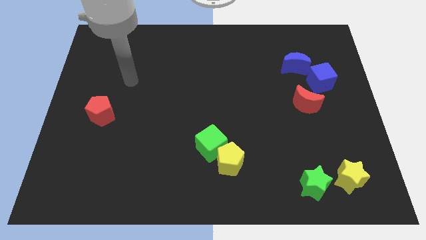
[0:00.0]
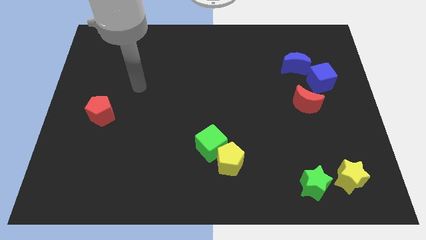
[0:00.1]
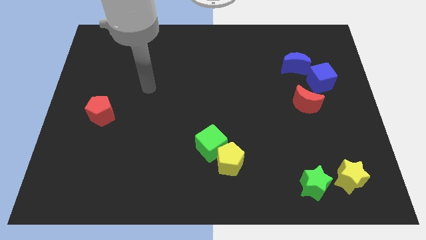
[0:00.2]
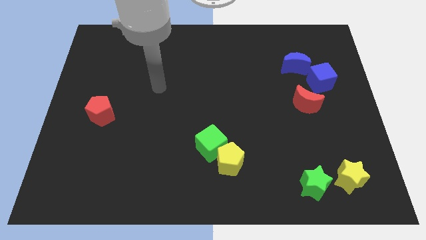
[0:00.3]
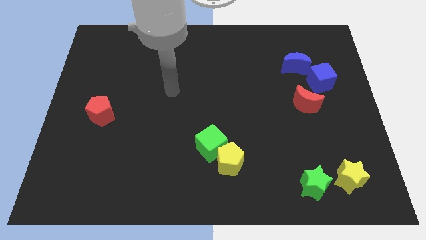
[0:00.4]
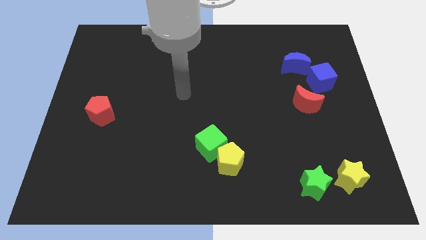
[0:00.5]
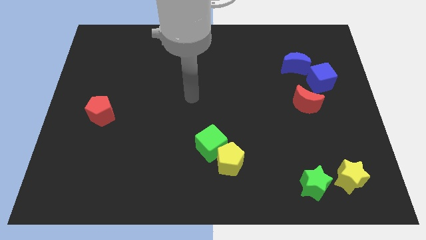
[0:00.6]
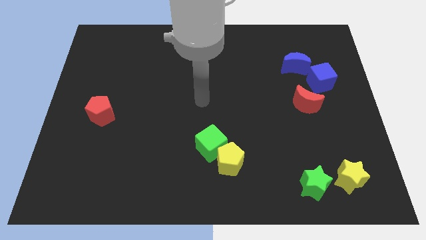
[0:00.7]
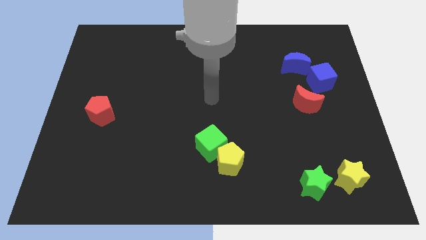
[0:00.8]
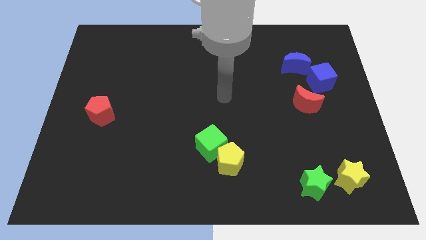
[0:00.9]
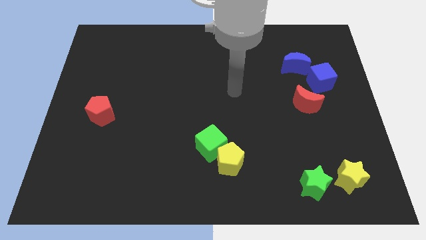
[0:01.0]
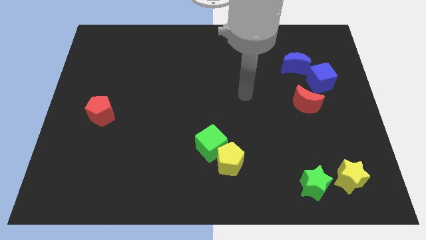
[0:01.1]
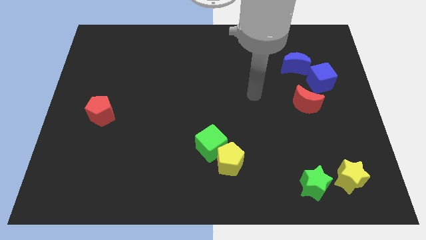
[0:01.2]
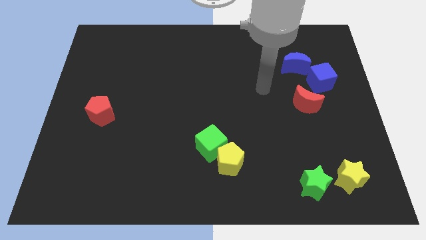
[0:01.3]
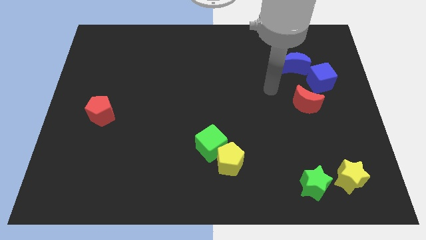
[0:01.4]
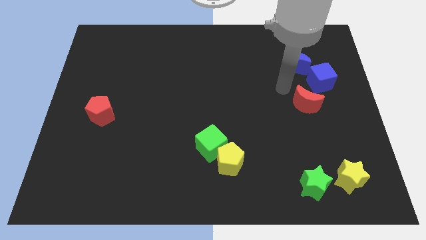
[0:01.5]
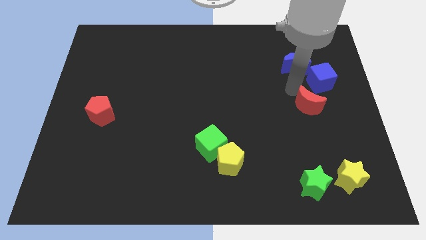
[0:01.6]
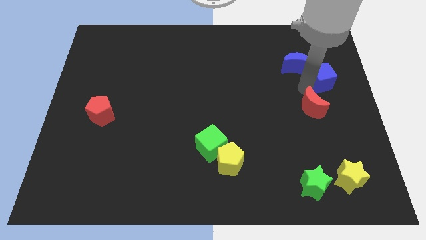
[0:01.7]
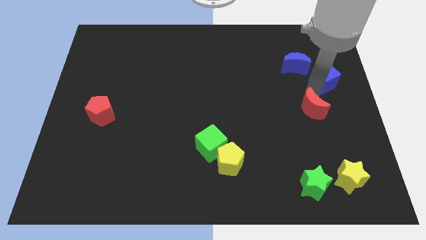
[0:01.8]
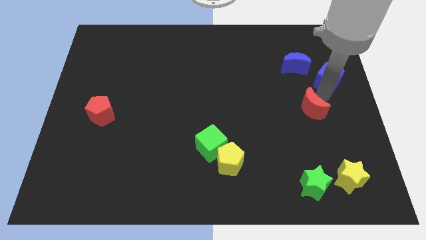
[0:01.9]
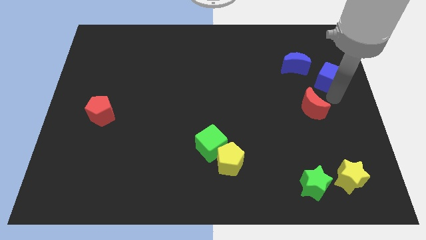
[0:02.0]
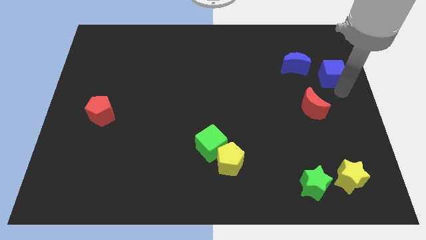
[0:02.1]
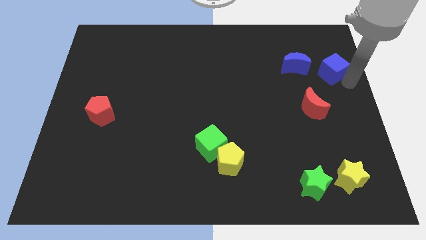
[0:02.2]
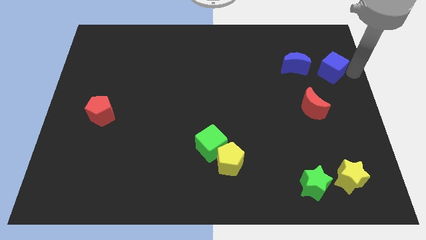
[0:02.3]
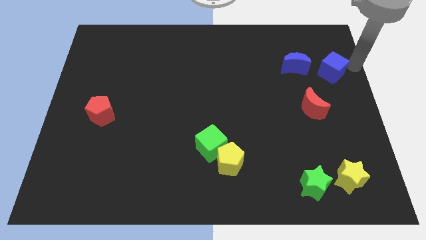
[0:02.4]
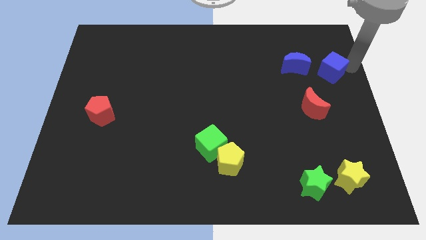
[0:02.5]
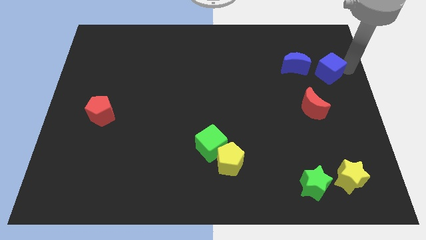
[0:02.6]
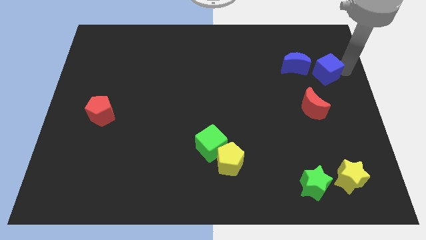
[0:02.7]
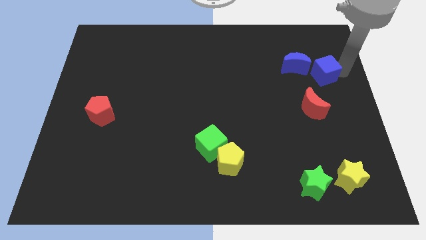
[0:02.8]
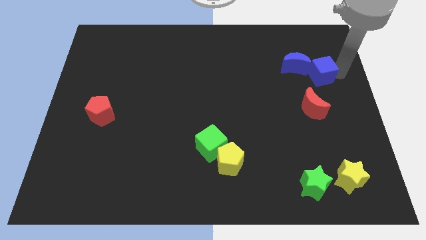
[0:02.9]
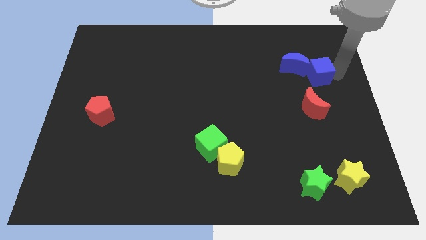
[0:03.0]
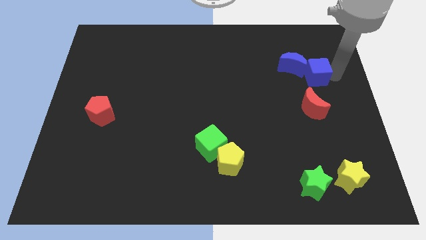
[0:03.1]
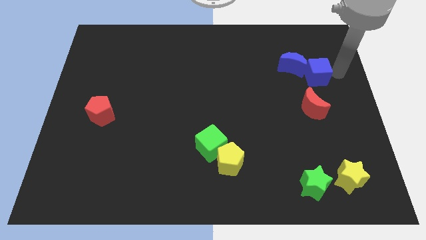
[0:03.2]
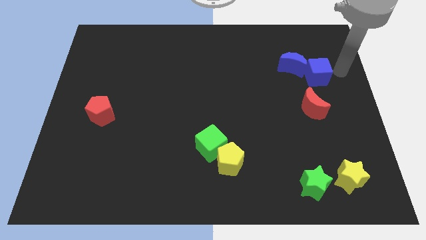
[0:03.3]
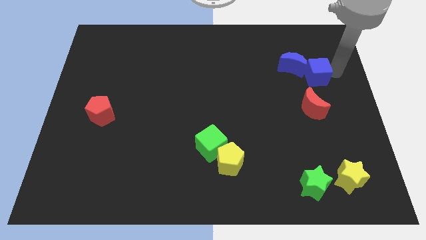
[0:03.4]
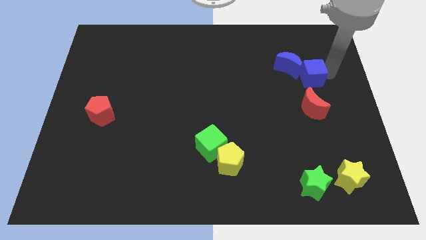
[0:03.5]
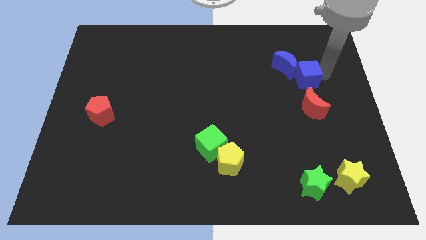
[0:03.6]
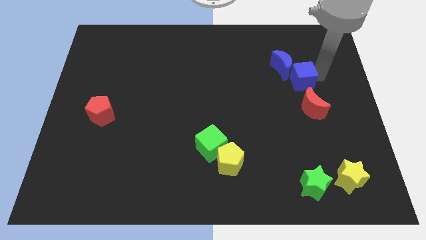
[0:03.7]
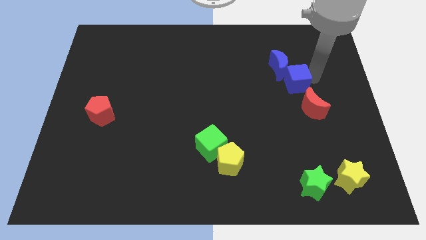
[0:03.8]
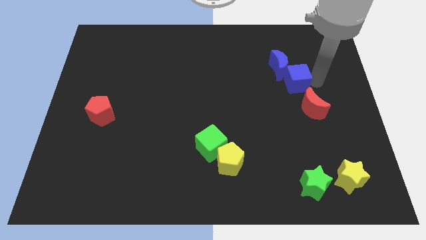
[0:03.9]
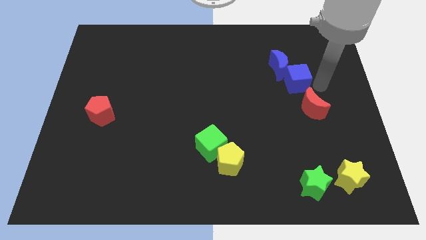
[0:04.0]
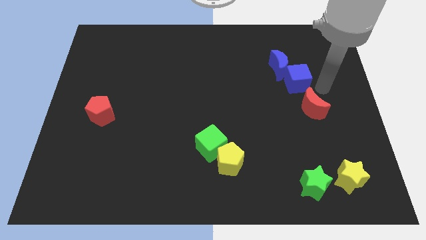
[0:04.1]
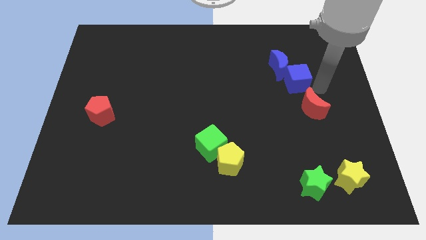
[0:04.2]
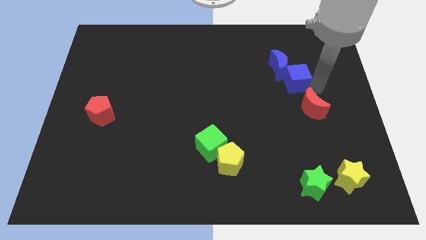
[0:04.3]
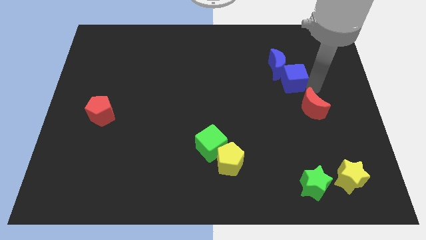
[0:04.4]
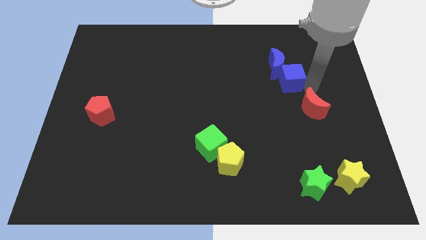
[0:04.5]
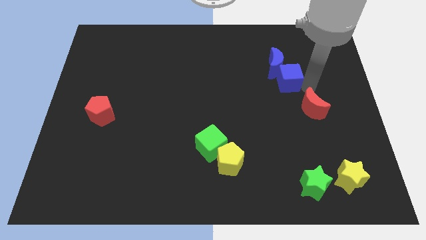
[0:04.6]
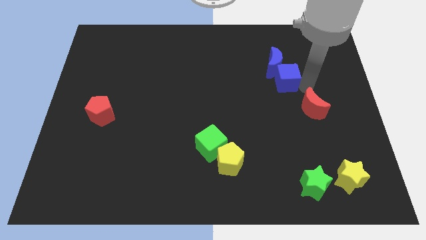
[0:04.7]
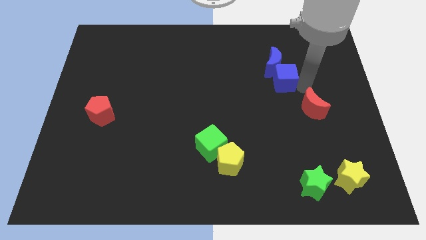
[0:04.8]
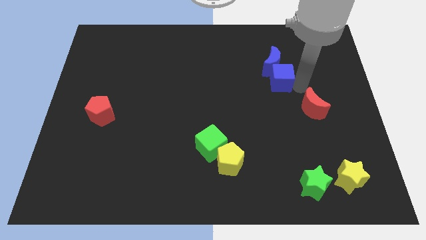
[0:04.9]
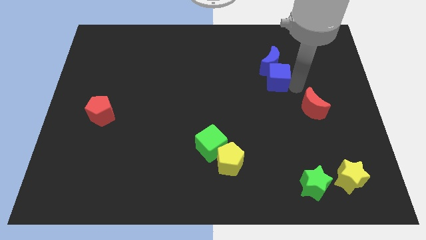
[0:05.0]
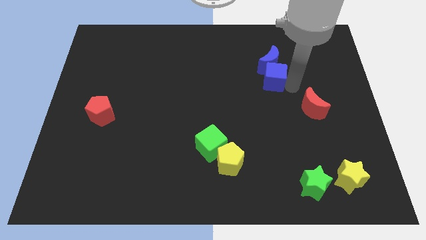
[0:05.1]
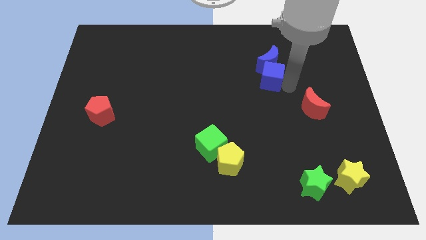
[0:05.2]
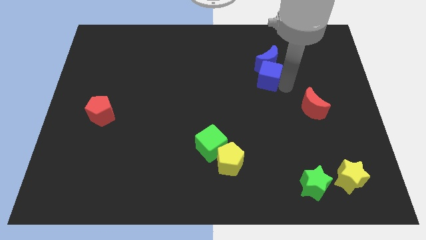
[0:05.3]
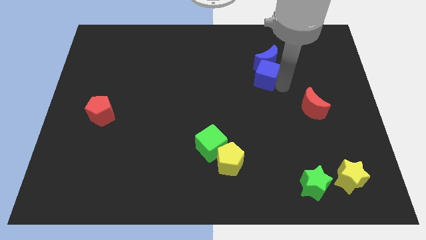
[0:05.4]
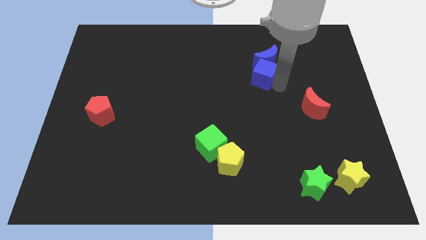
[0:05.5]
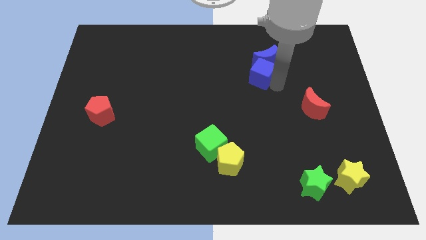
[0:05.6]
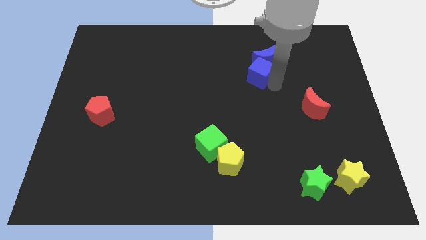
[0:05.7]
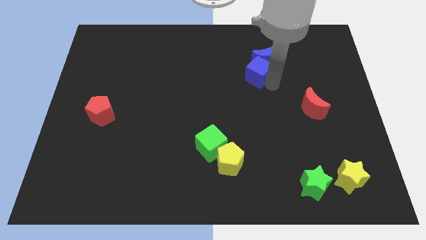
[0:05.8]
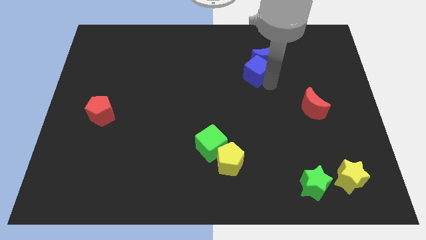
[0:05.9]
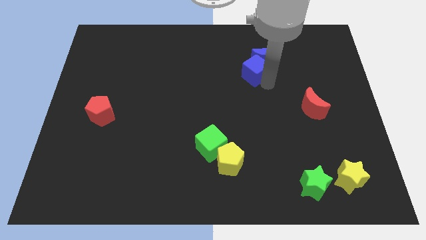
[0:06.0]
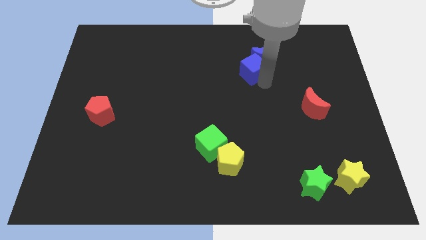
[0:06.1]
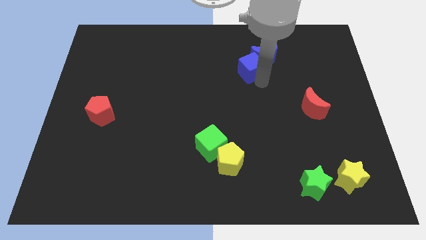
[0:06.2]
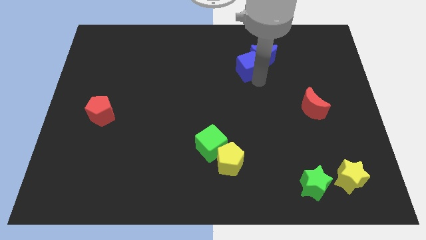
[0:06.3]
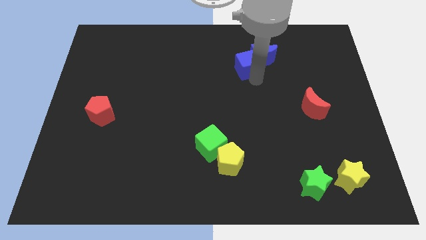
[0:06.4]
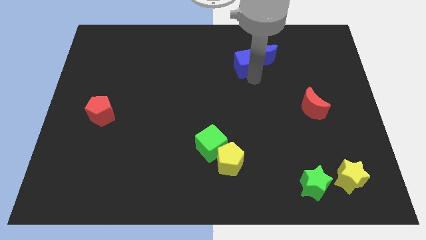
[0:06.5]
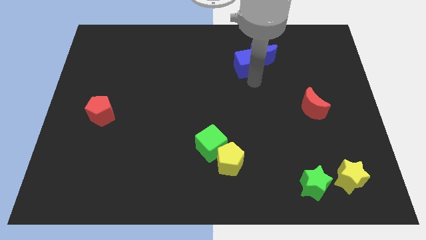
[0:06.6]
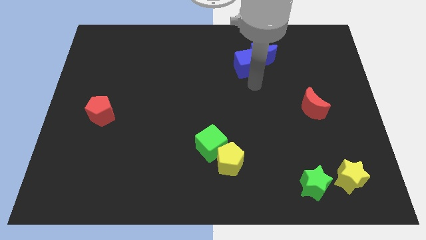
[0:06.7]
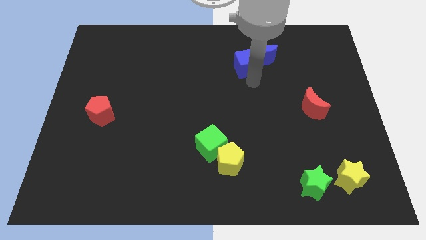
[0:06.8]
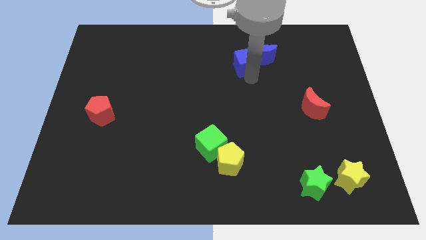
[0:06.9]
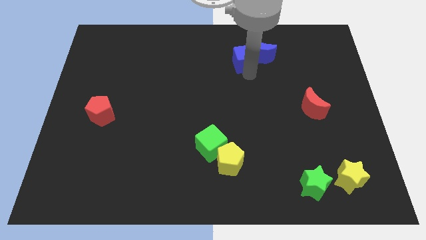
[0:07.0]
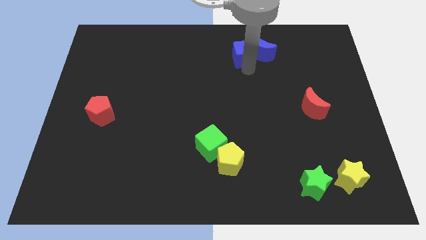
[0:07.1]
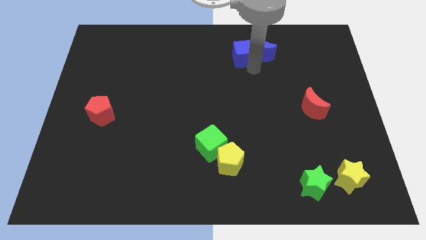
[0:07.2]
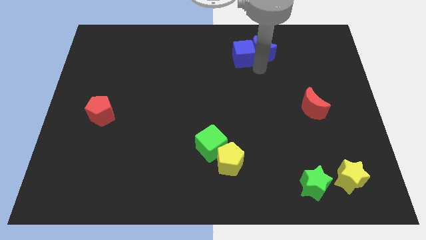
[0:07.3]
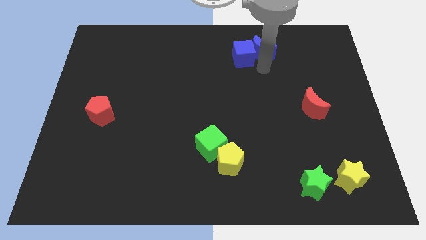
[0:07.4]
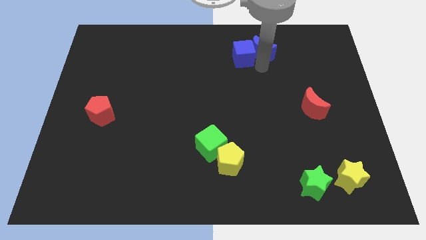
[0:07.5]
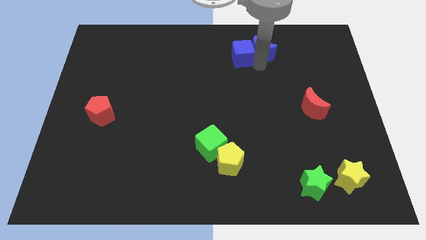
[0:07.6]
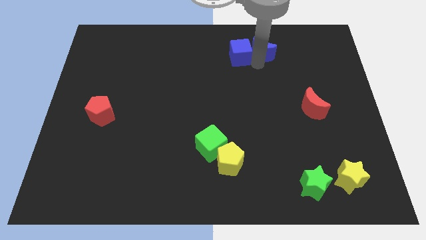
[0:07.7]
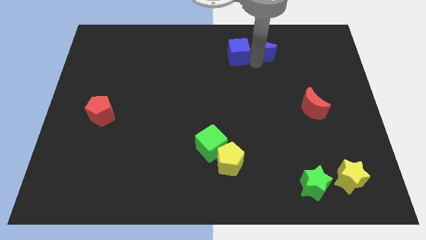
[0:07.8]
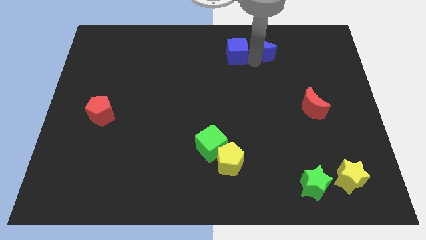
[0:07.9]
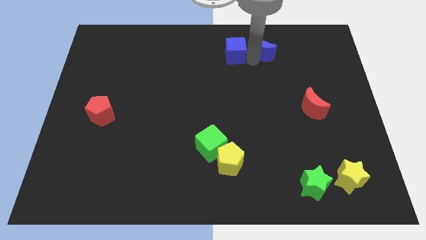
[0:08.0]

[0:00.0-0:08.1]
push the blue cube to the towards your base
